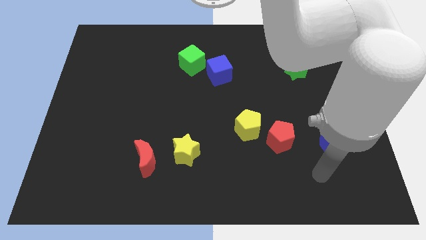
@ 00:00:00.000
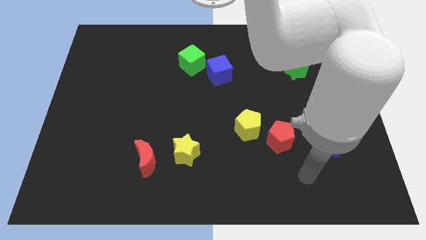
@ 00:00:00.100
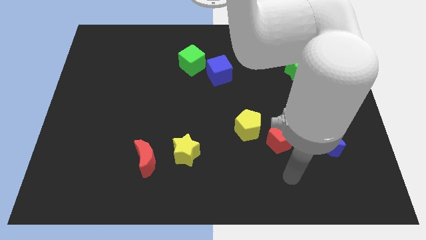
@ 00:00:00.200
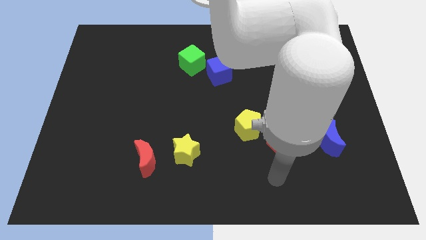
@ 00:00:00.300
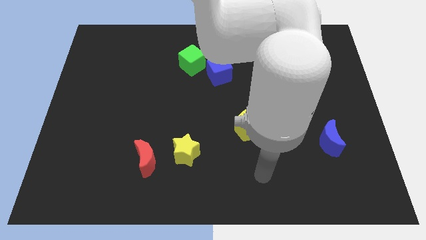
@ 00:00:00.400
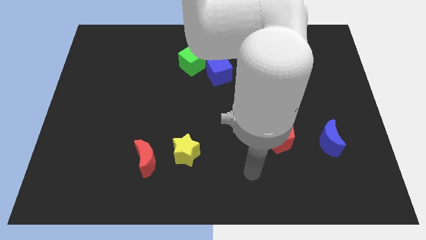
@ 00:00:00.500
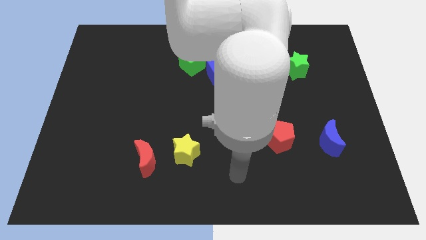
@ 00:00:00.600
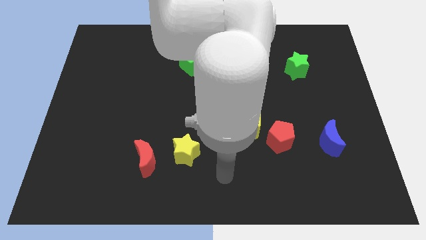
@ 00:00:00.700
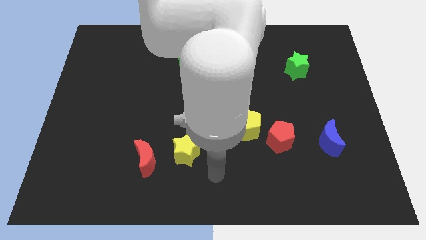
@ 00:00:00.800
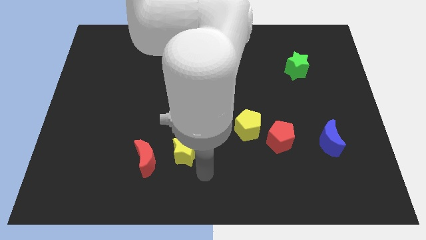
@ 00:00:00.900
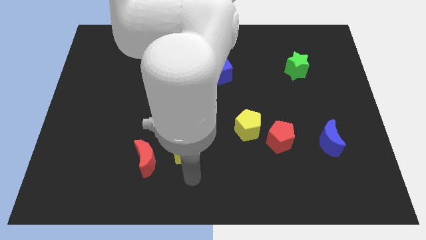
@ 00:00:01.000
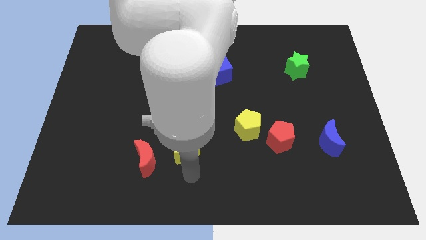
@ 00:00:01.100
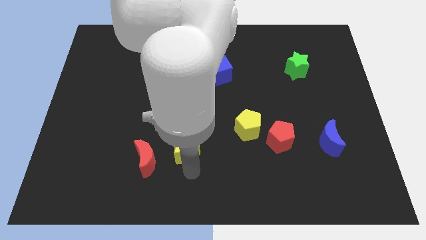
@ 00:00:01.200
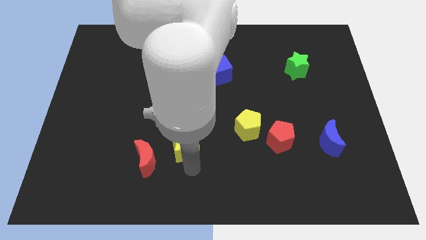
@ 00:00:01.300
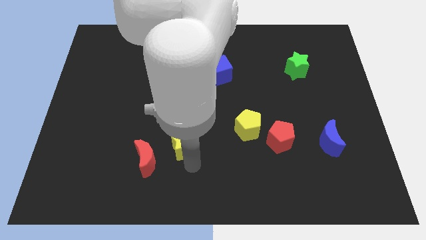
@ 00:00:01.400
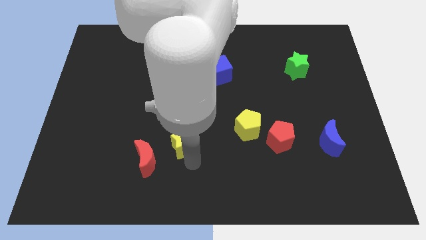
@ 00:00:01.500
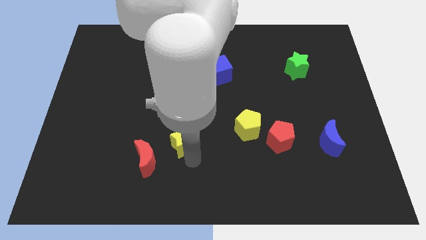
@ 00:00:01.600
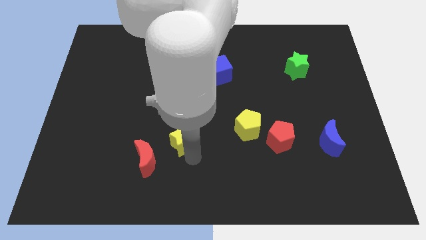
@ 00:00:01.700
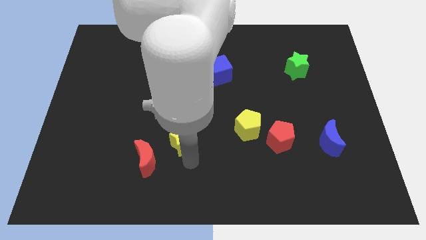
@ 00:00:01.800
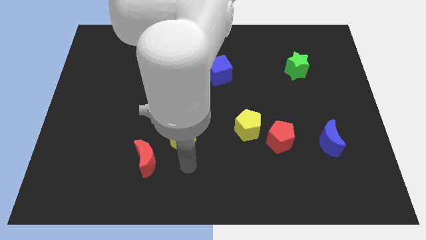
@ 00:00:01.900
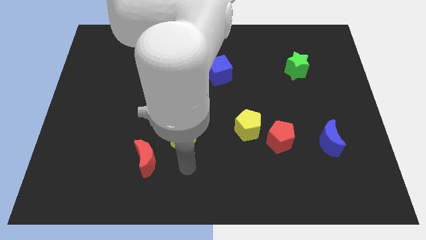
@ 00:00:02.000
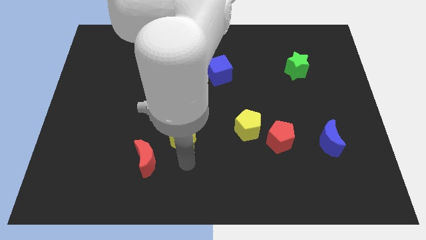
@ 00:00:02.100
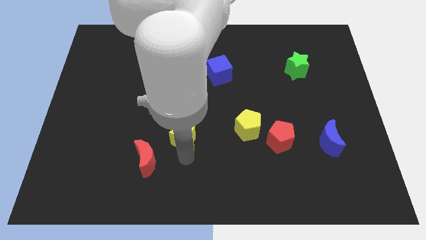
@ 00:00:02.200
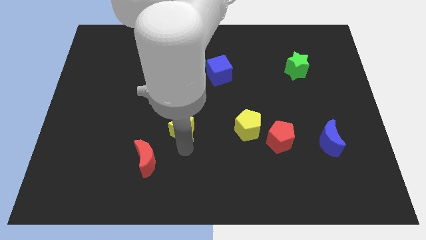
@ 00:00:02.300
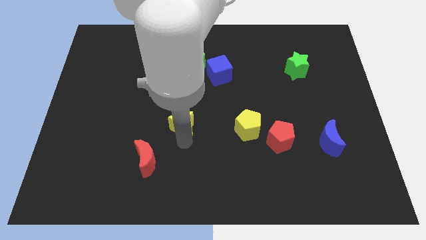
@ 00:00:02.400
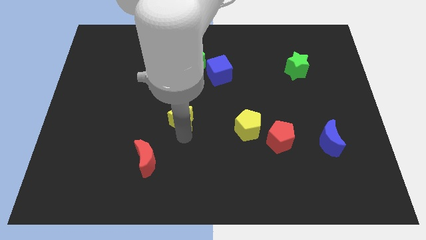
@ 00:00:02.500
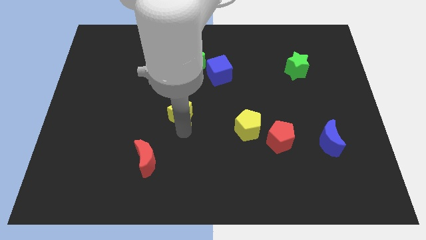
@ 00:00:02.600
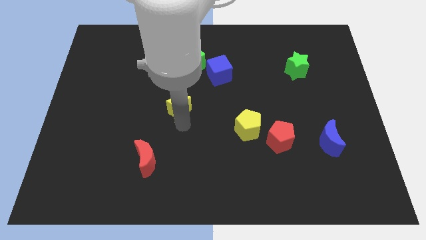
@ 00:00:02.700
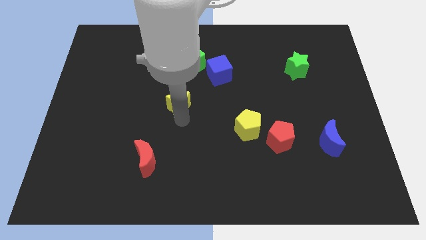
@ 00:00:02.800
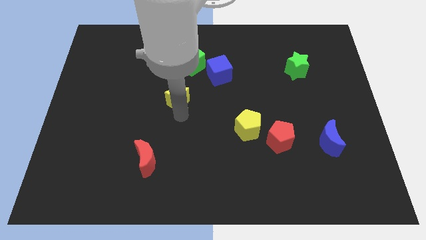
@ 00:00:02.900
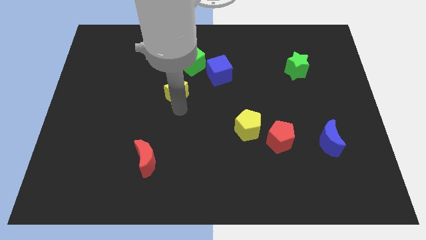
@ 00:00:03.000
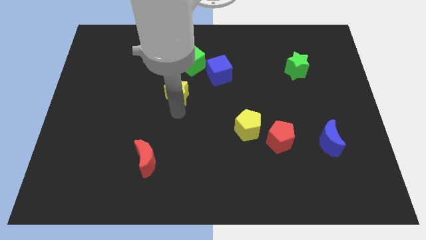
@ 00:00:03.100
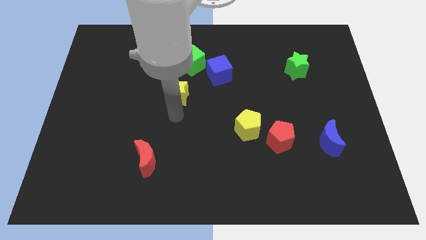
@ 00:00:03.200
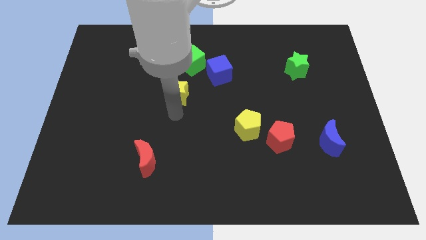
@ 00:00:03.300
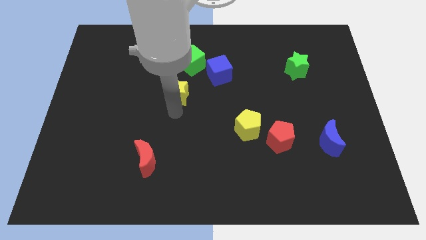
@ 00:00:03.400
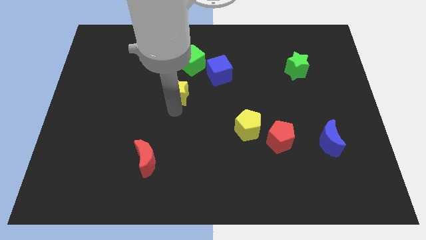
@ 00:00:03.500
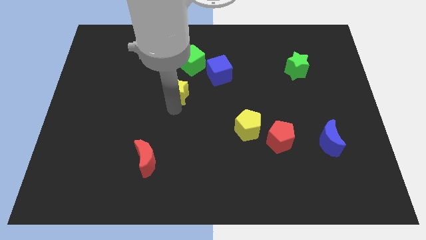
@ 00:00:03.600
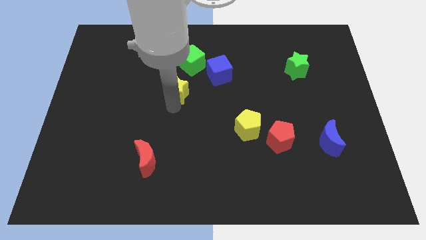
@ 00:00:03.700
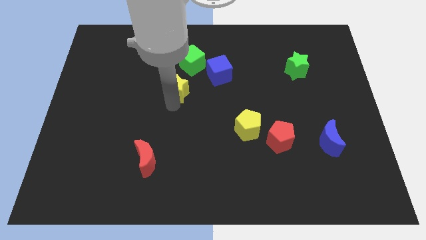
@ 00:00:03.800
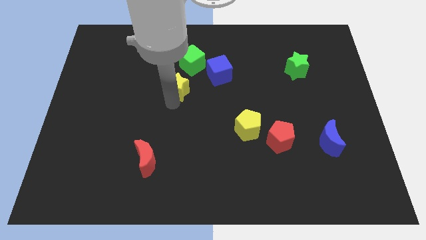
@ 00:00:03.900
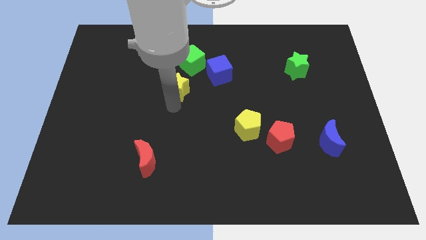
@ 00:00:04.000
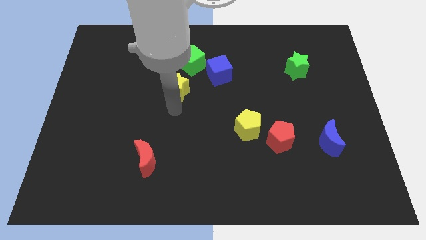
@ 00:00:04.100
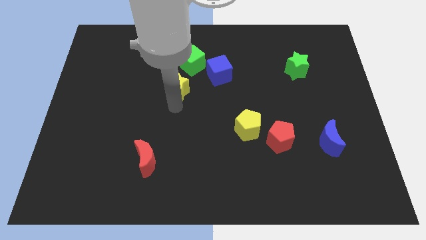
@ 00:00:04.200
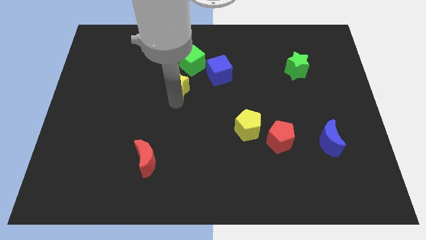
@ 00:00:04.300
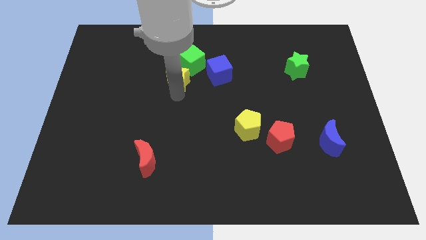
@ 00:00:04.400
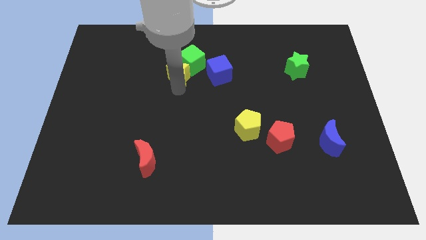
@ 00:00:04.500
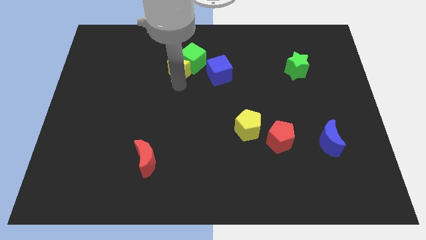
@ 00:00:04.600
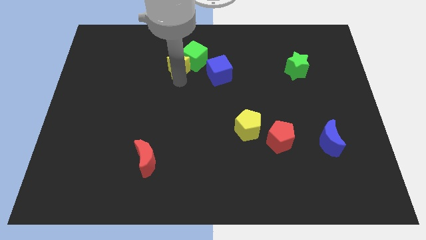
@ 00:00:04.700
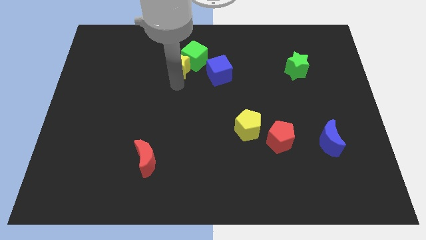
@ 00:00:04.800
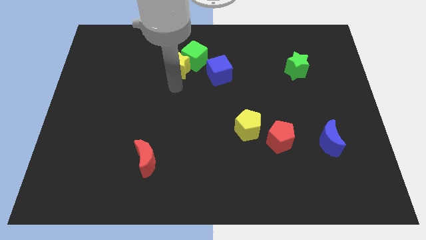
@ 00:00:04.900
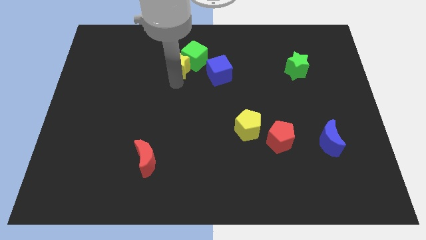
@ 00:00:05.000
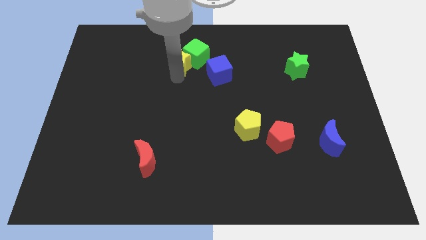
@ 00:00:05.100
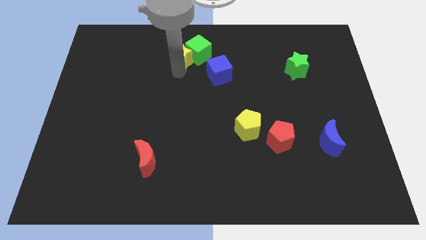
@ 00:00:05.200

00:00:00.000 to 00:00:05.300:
slide the yellow star diagonally up and to the left of the blue cube

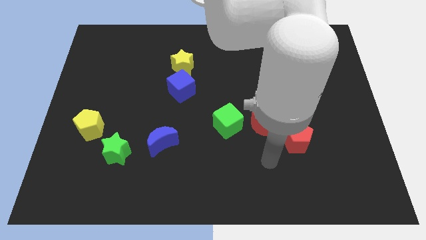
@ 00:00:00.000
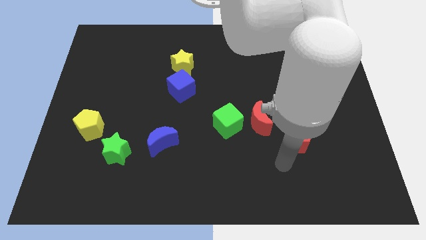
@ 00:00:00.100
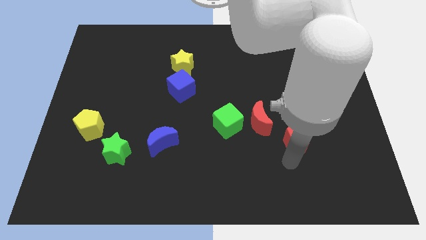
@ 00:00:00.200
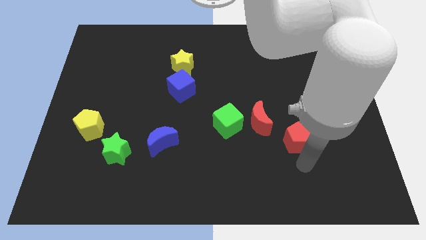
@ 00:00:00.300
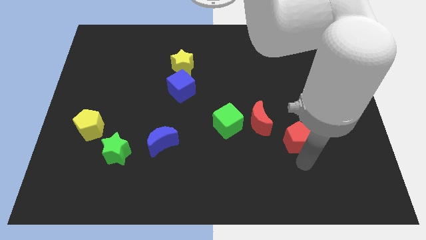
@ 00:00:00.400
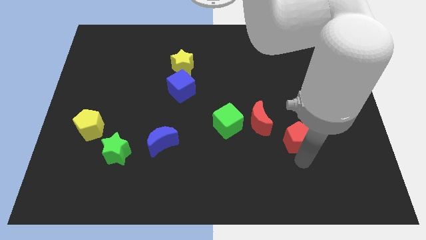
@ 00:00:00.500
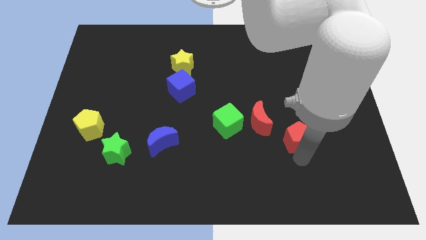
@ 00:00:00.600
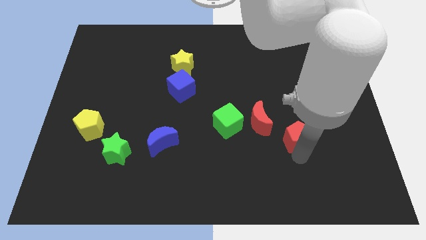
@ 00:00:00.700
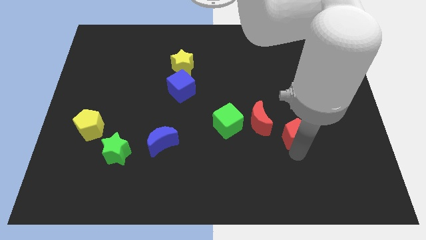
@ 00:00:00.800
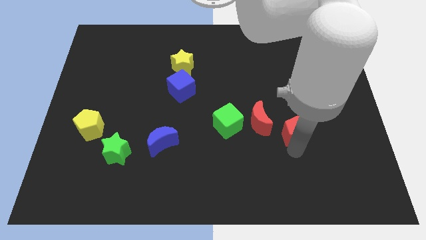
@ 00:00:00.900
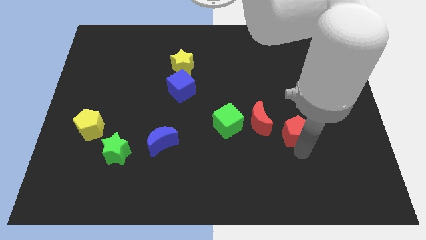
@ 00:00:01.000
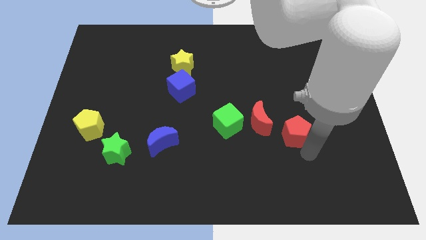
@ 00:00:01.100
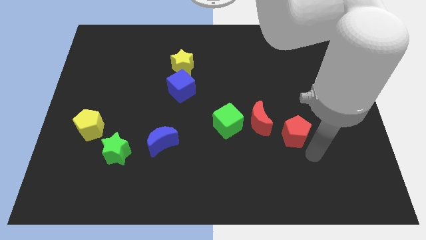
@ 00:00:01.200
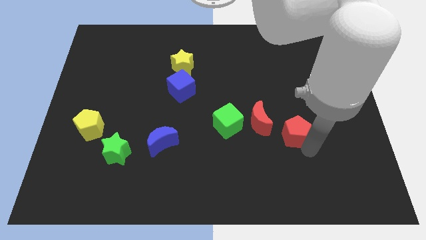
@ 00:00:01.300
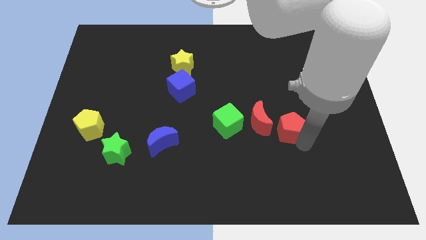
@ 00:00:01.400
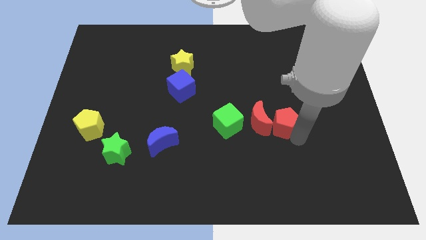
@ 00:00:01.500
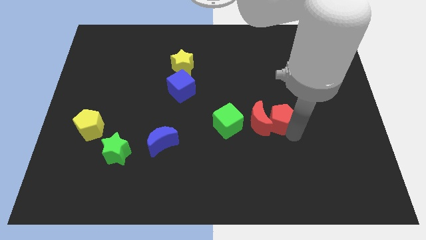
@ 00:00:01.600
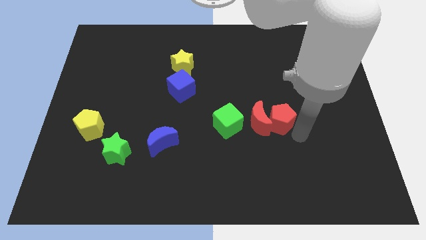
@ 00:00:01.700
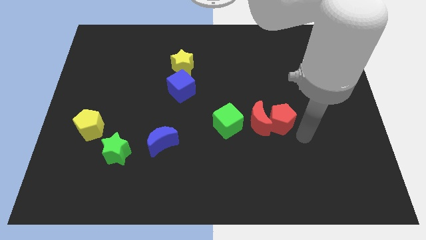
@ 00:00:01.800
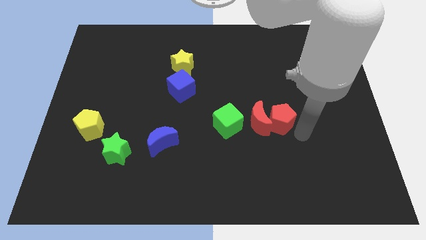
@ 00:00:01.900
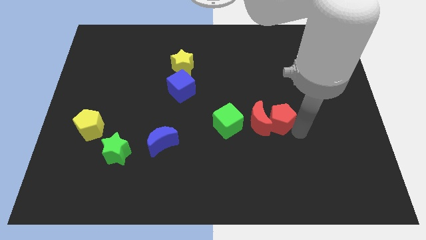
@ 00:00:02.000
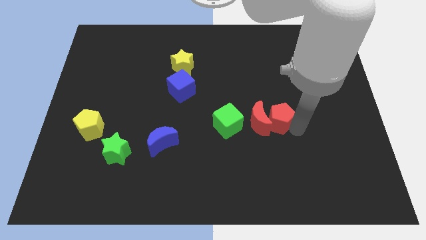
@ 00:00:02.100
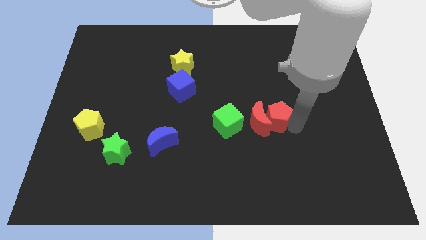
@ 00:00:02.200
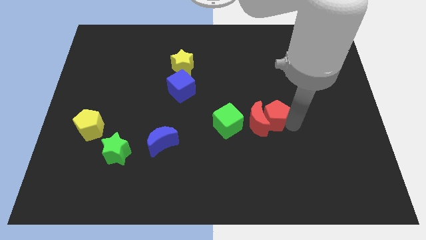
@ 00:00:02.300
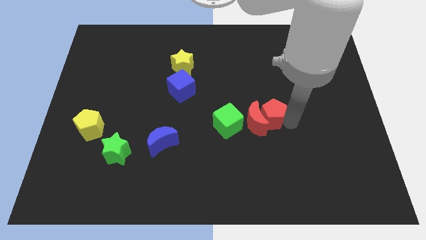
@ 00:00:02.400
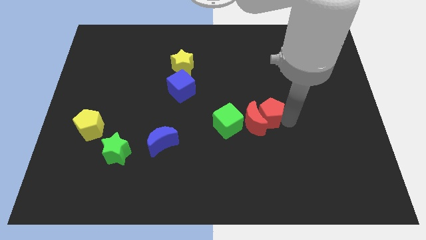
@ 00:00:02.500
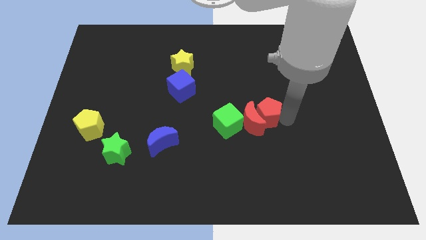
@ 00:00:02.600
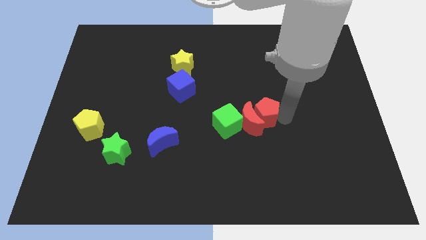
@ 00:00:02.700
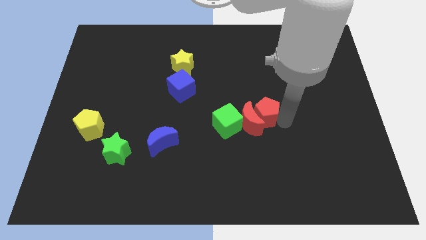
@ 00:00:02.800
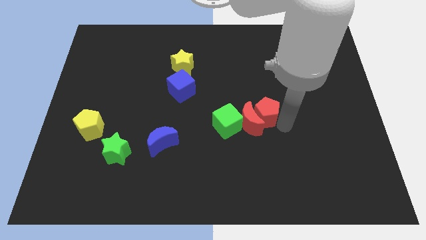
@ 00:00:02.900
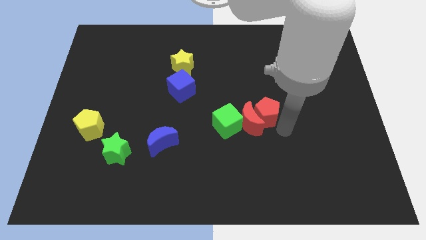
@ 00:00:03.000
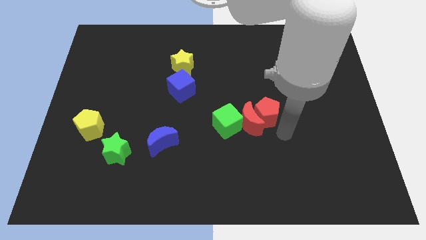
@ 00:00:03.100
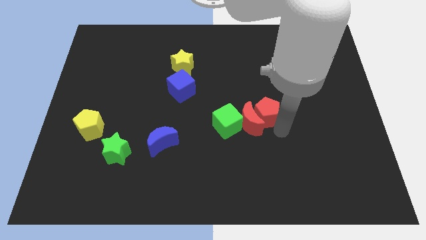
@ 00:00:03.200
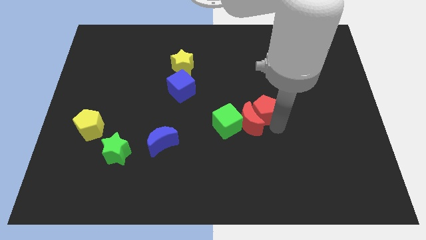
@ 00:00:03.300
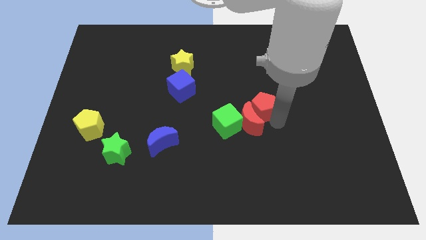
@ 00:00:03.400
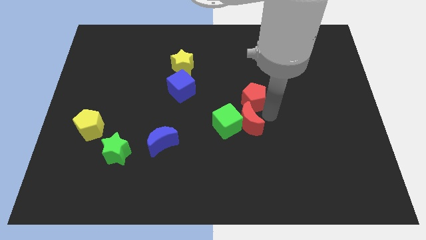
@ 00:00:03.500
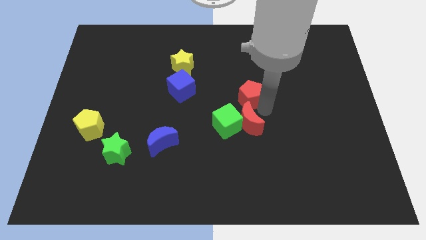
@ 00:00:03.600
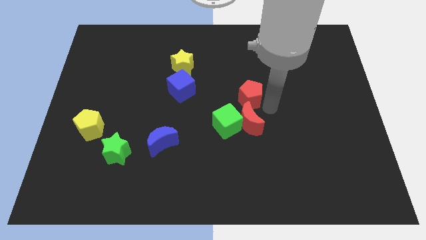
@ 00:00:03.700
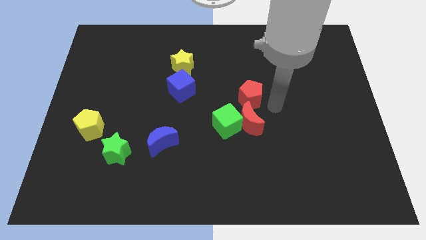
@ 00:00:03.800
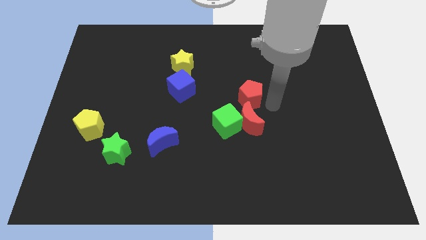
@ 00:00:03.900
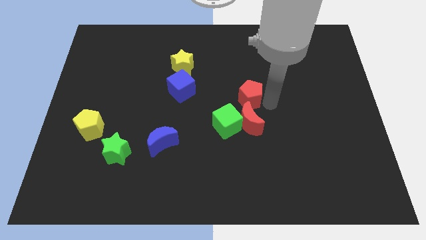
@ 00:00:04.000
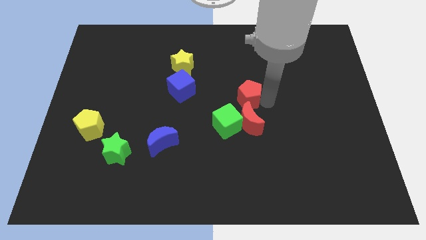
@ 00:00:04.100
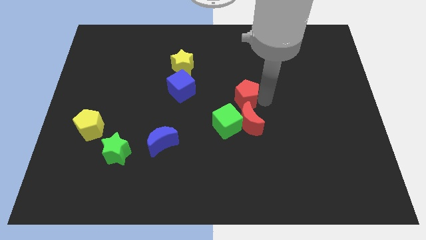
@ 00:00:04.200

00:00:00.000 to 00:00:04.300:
move the red pentagon to the top of the green cube
